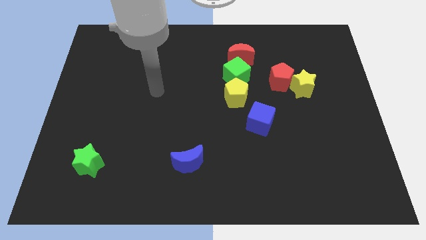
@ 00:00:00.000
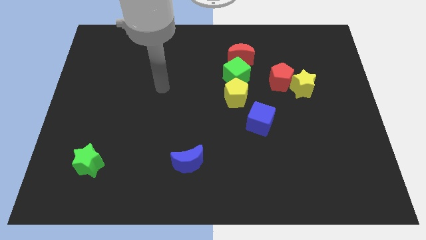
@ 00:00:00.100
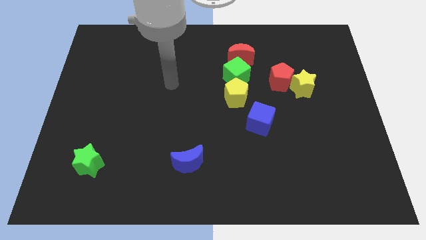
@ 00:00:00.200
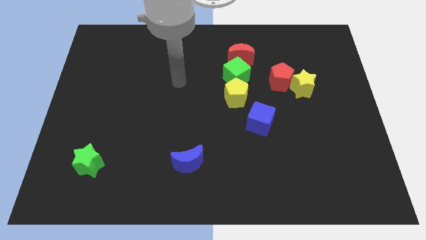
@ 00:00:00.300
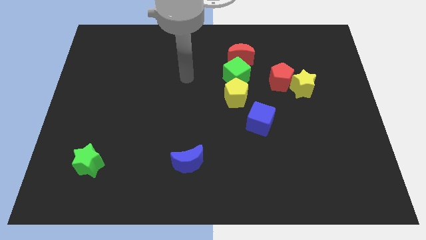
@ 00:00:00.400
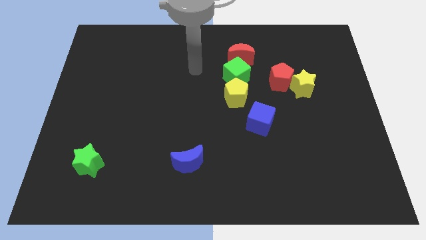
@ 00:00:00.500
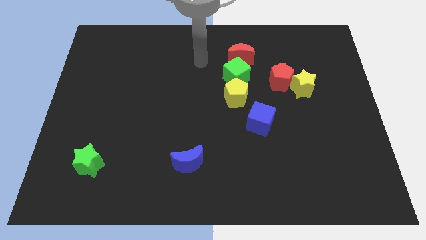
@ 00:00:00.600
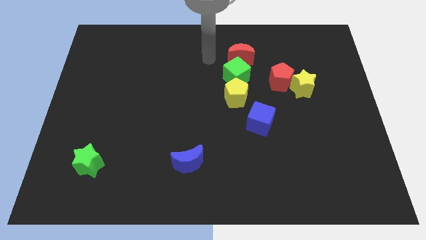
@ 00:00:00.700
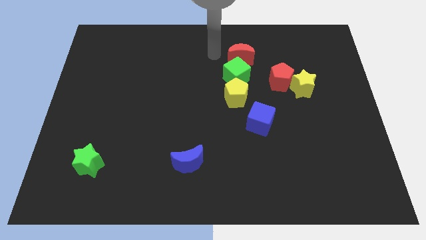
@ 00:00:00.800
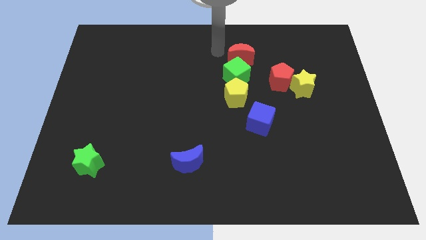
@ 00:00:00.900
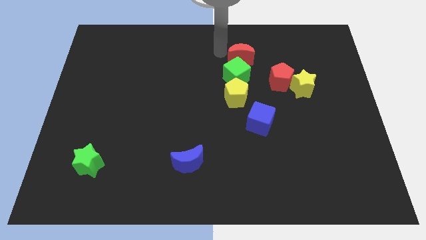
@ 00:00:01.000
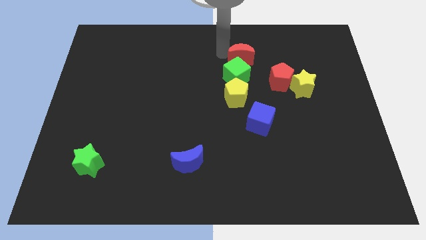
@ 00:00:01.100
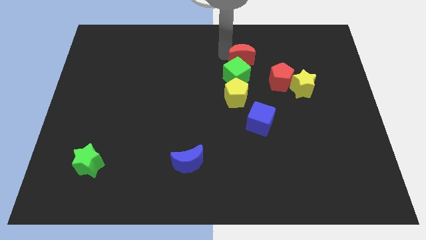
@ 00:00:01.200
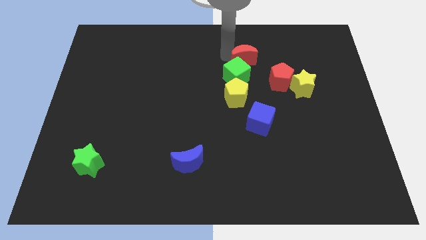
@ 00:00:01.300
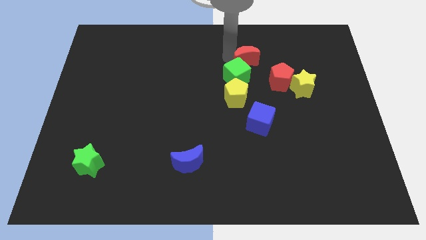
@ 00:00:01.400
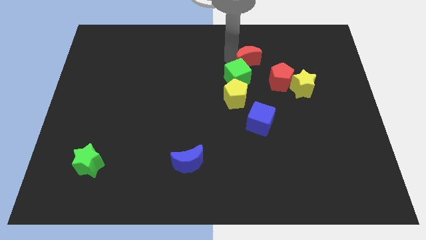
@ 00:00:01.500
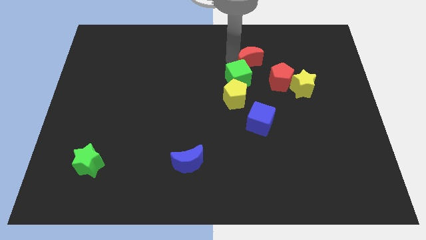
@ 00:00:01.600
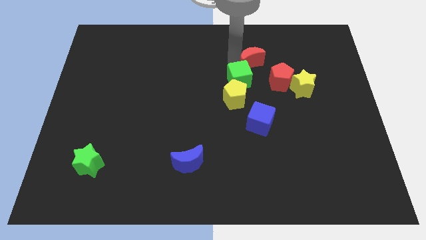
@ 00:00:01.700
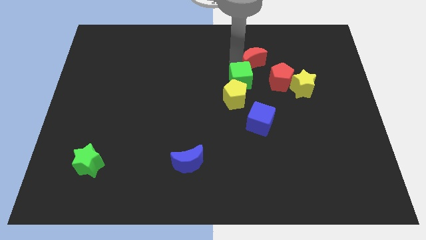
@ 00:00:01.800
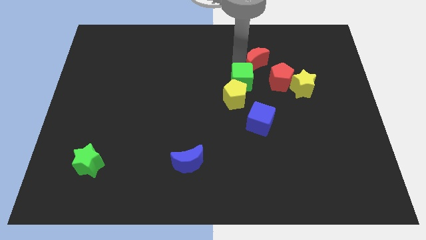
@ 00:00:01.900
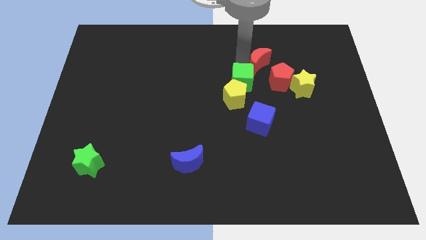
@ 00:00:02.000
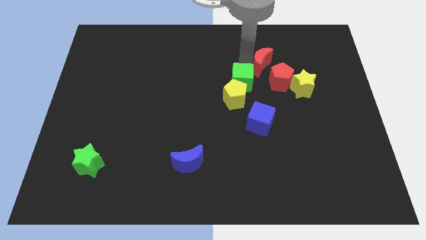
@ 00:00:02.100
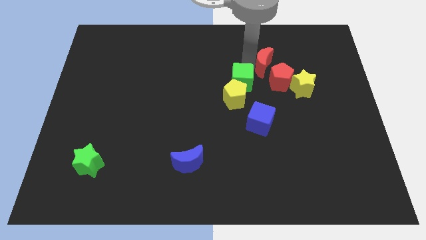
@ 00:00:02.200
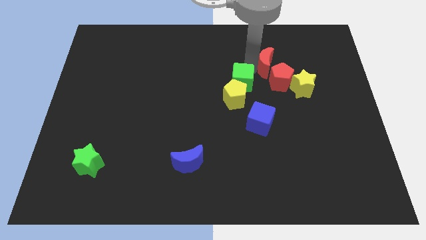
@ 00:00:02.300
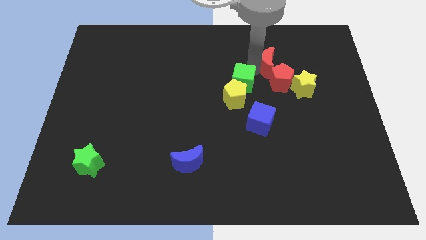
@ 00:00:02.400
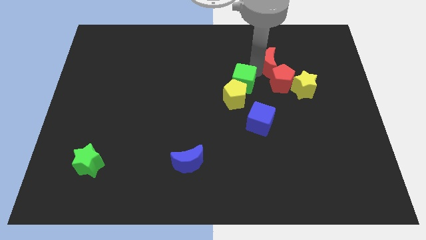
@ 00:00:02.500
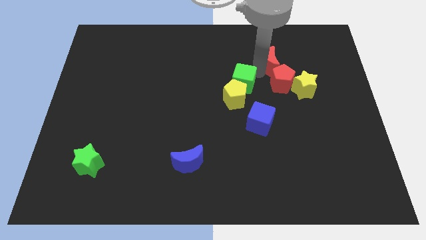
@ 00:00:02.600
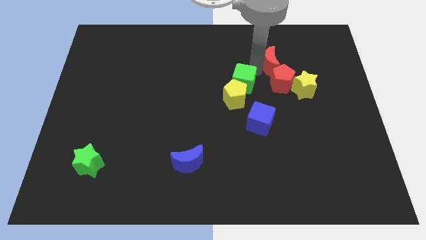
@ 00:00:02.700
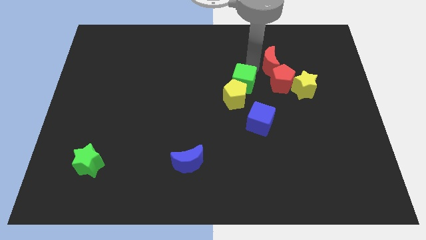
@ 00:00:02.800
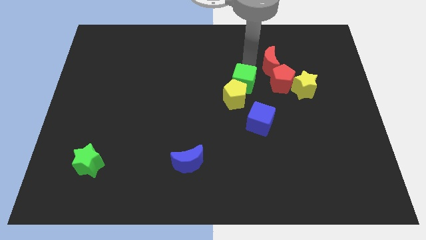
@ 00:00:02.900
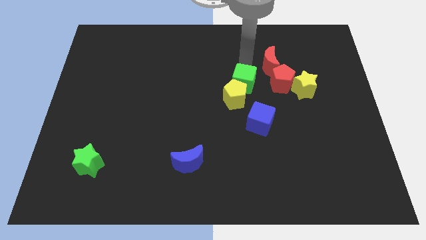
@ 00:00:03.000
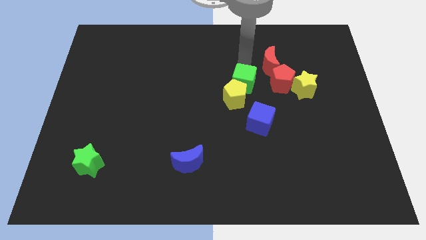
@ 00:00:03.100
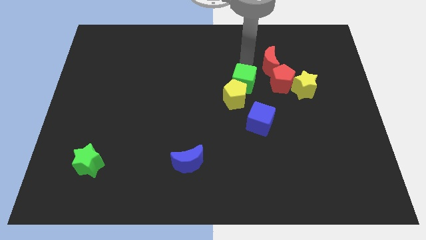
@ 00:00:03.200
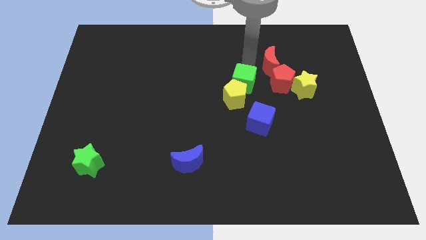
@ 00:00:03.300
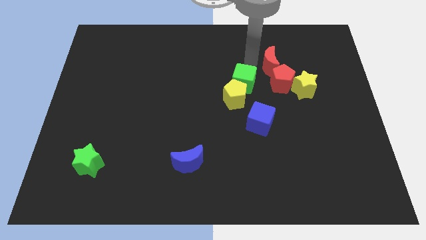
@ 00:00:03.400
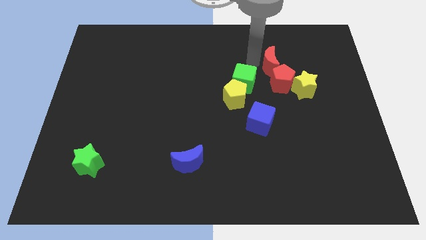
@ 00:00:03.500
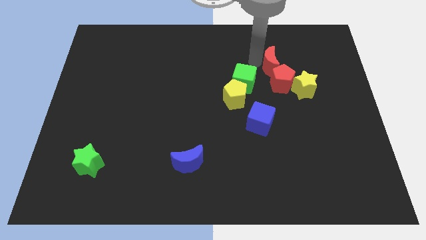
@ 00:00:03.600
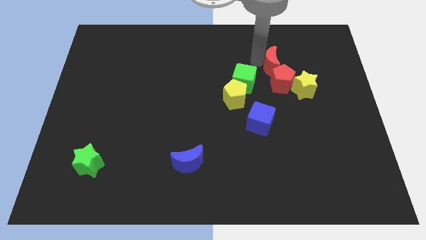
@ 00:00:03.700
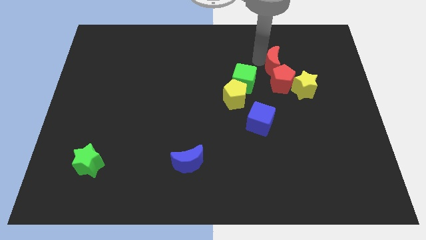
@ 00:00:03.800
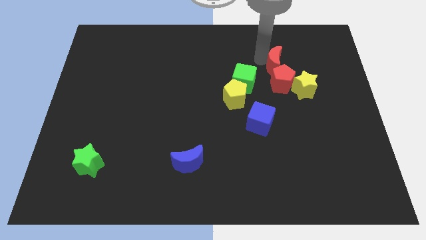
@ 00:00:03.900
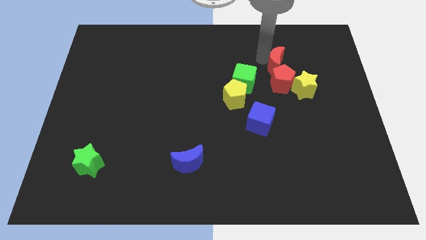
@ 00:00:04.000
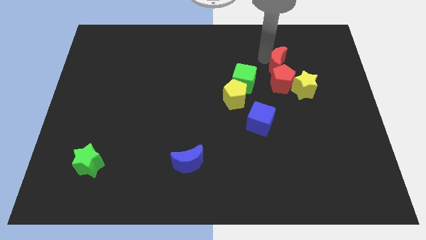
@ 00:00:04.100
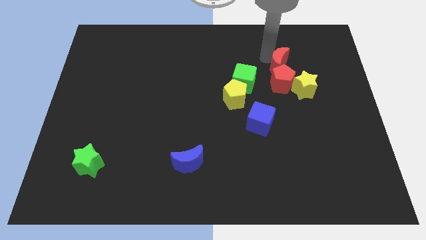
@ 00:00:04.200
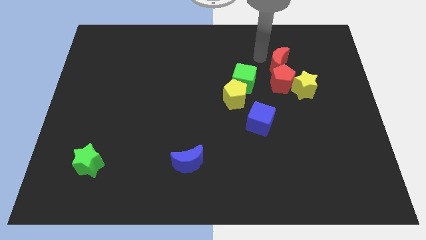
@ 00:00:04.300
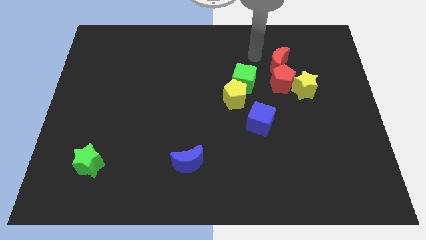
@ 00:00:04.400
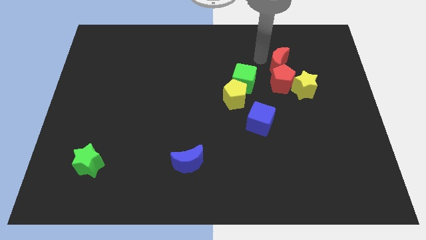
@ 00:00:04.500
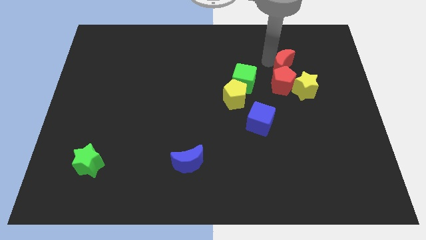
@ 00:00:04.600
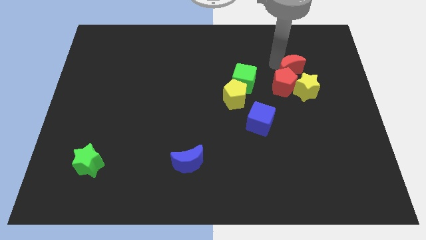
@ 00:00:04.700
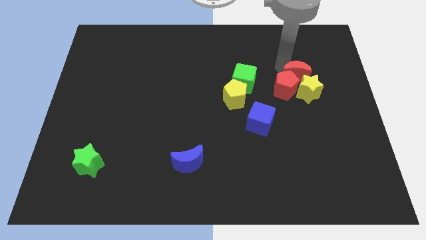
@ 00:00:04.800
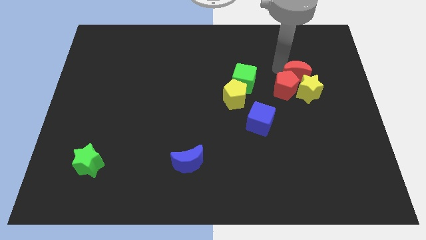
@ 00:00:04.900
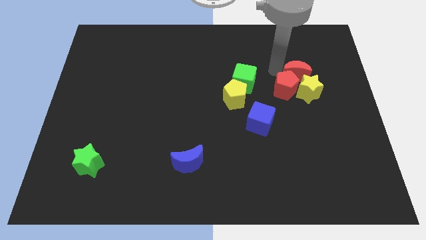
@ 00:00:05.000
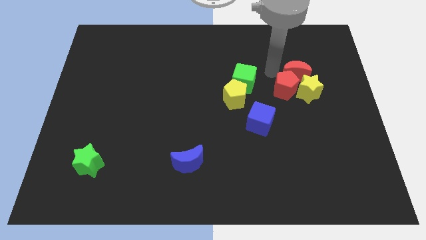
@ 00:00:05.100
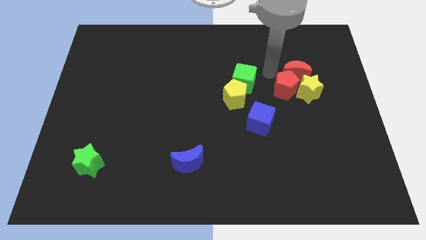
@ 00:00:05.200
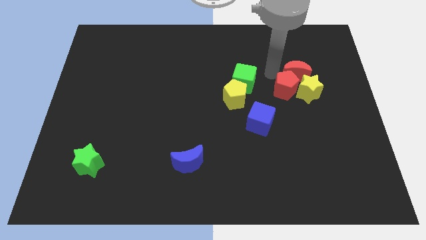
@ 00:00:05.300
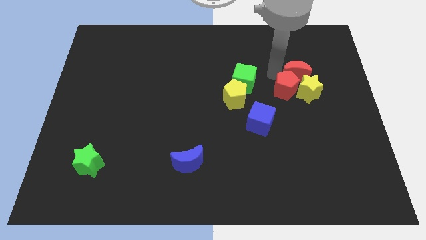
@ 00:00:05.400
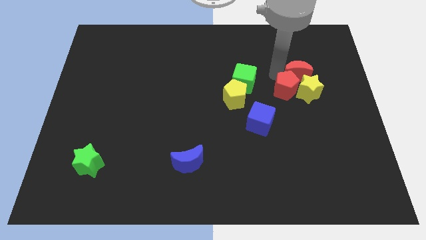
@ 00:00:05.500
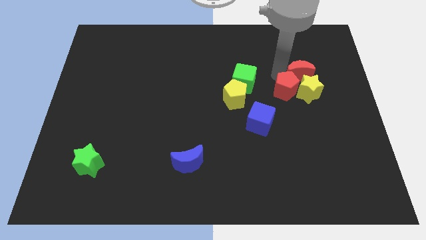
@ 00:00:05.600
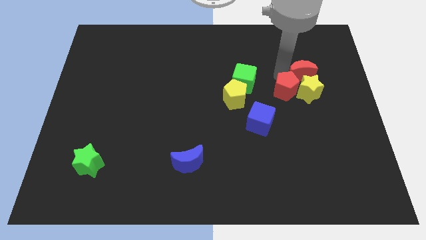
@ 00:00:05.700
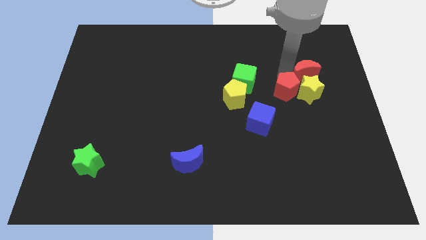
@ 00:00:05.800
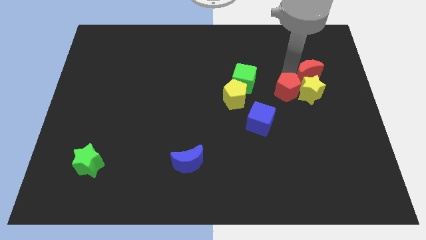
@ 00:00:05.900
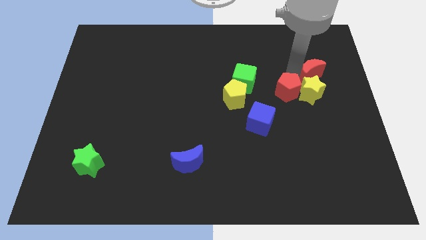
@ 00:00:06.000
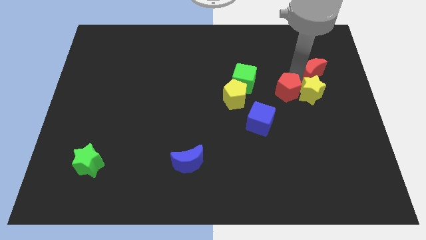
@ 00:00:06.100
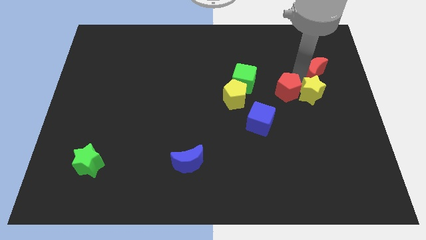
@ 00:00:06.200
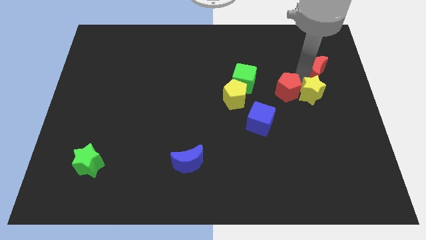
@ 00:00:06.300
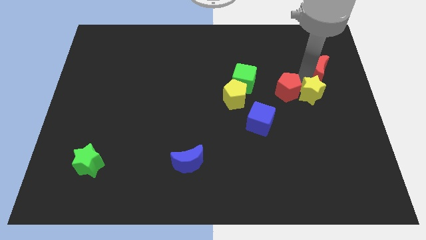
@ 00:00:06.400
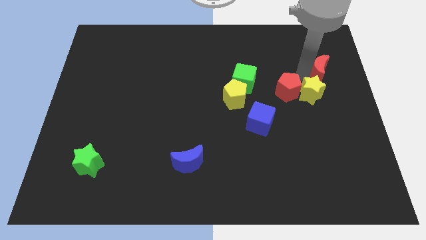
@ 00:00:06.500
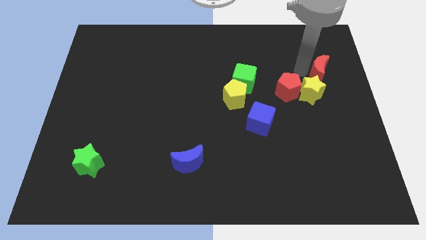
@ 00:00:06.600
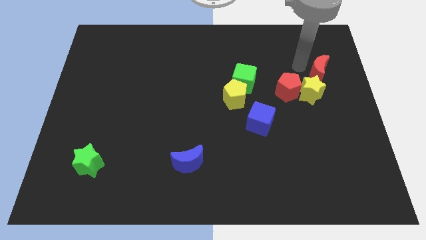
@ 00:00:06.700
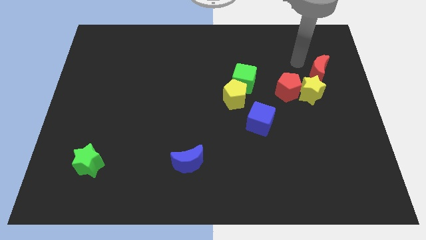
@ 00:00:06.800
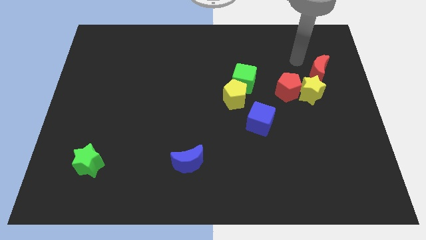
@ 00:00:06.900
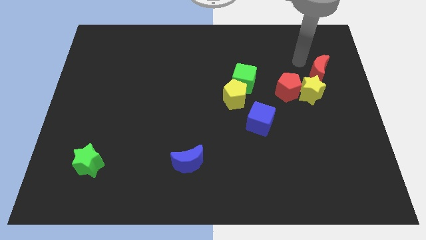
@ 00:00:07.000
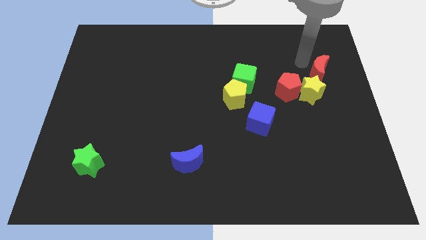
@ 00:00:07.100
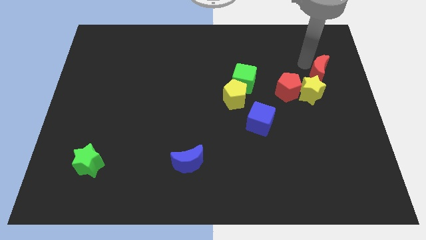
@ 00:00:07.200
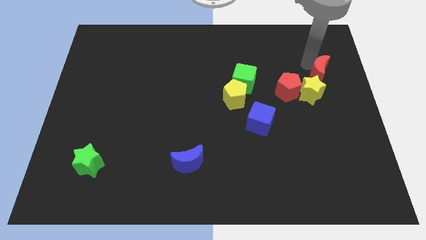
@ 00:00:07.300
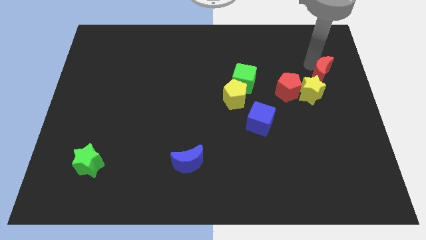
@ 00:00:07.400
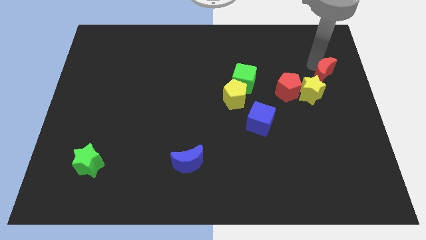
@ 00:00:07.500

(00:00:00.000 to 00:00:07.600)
slide the red moon to the right side

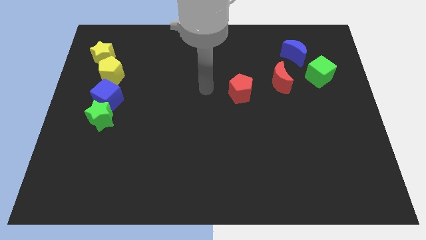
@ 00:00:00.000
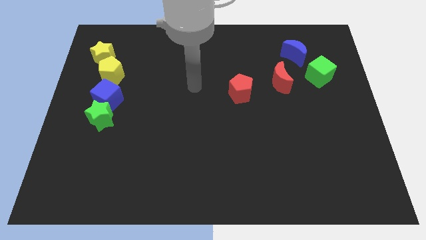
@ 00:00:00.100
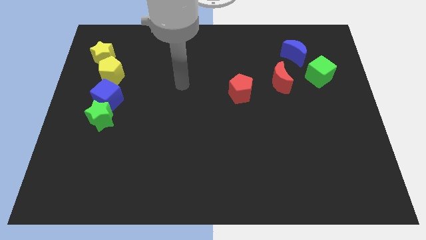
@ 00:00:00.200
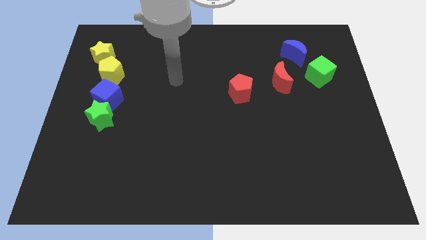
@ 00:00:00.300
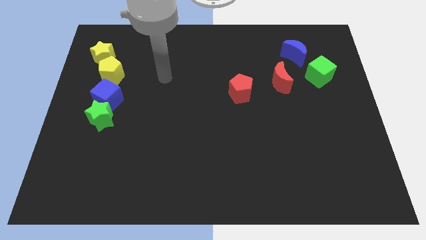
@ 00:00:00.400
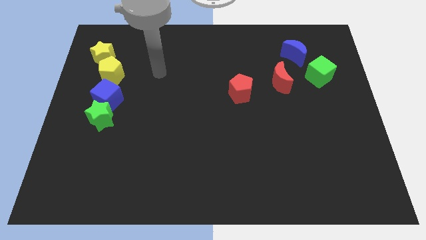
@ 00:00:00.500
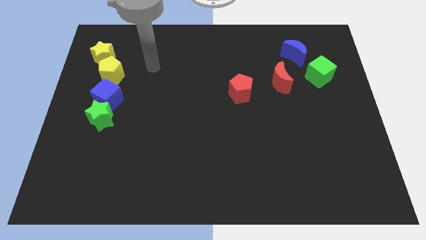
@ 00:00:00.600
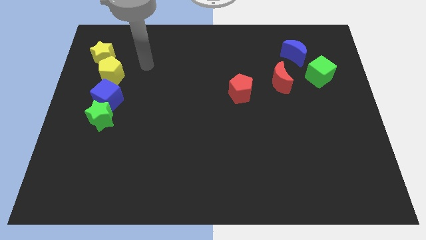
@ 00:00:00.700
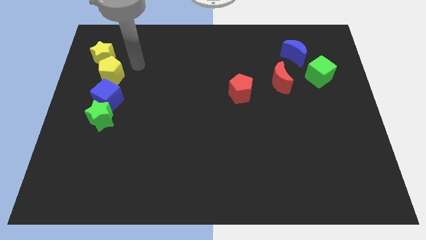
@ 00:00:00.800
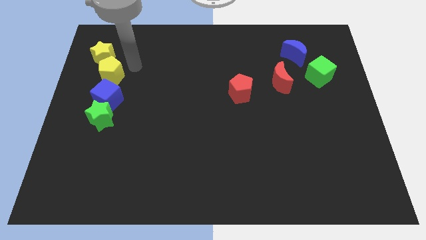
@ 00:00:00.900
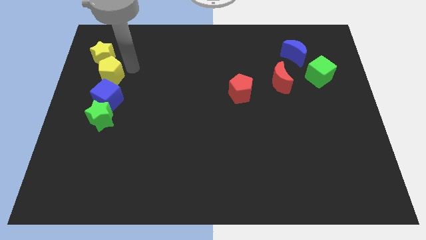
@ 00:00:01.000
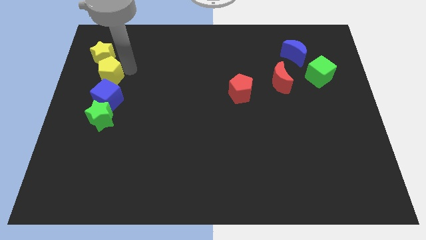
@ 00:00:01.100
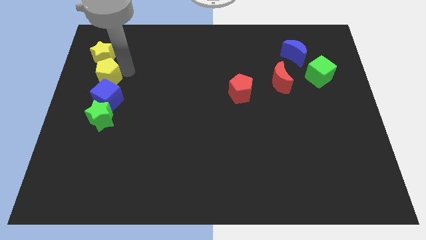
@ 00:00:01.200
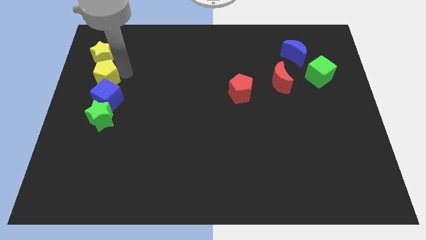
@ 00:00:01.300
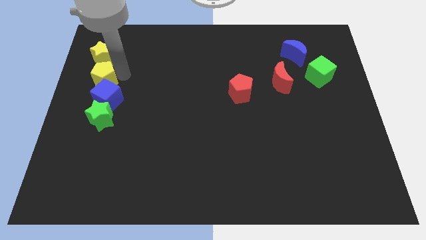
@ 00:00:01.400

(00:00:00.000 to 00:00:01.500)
slide the yellow pentagon to the left side of the board
